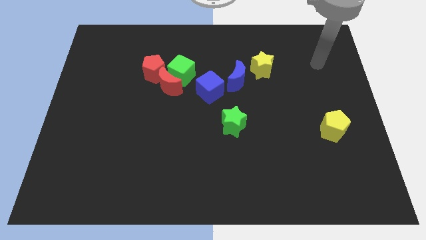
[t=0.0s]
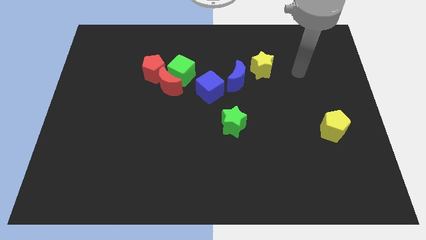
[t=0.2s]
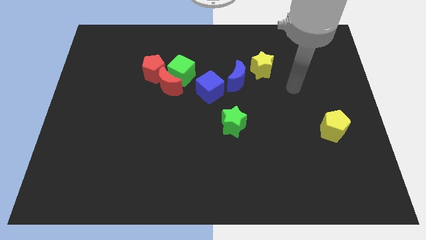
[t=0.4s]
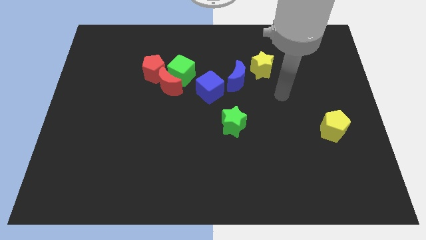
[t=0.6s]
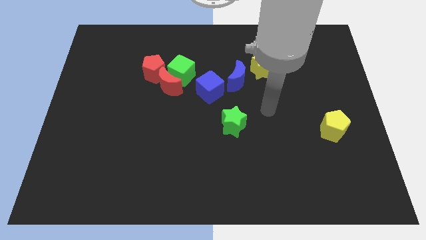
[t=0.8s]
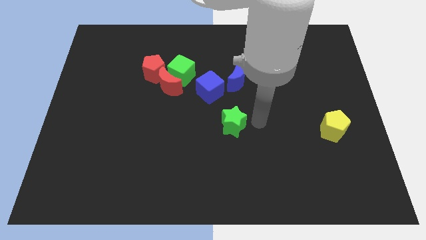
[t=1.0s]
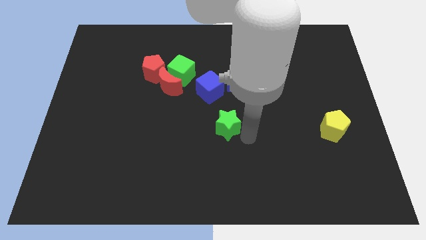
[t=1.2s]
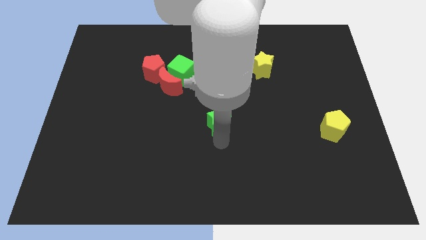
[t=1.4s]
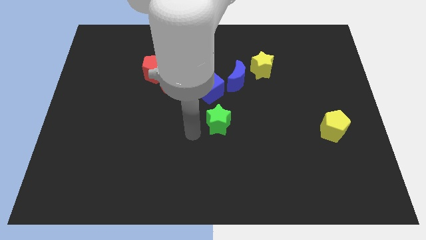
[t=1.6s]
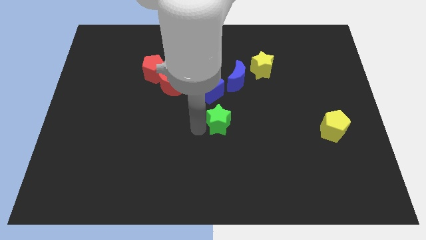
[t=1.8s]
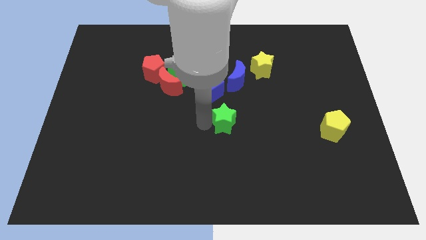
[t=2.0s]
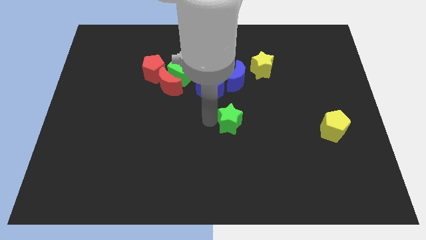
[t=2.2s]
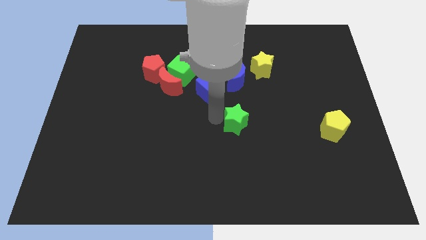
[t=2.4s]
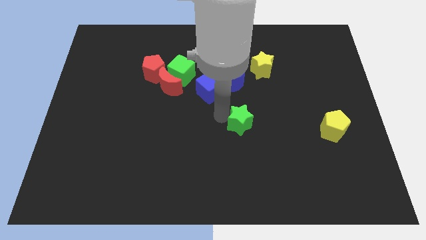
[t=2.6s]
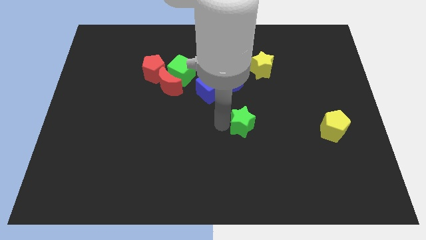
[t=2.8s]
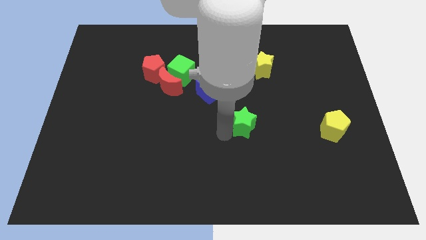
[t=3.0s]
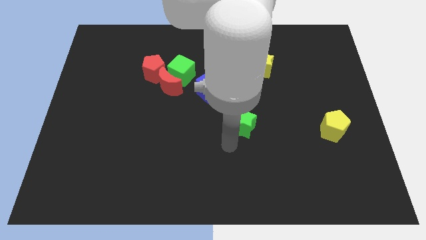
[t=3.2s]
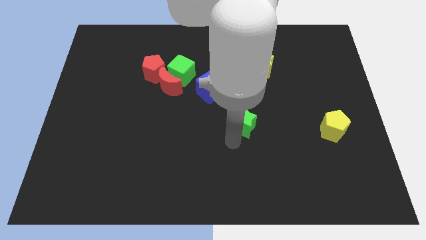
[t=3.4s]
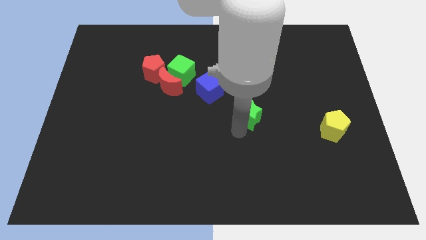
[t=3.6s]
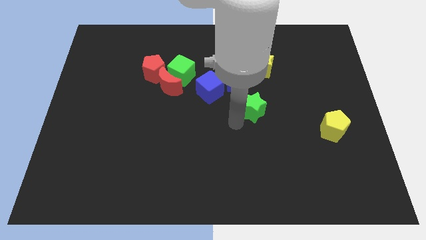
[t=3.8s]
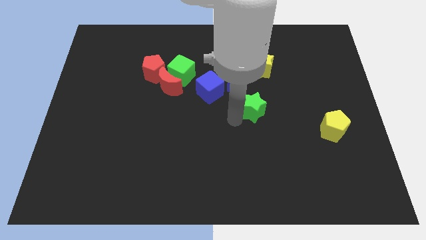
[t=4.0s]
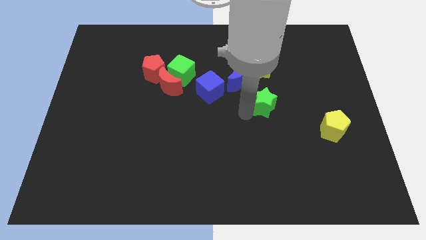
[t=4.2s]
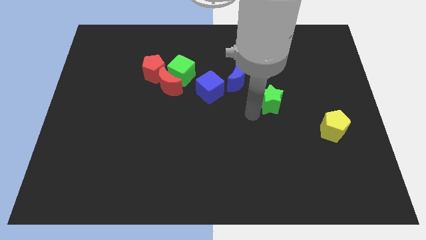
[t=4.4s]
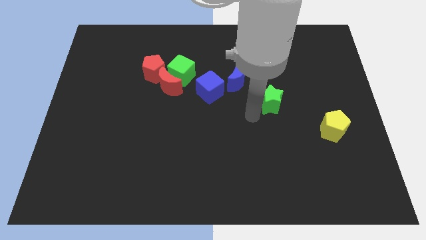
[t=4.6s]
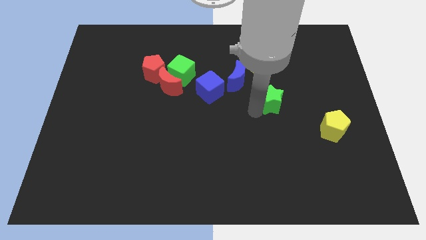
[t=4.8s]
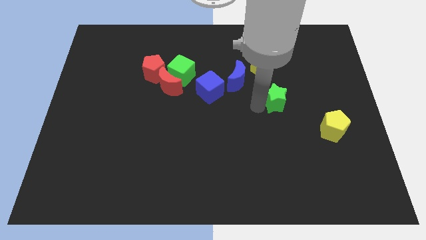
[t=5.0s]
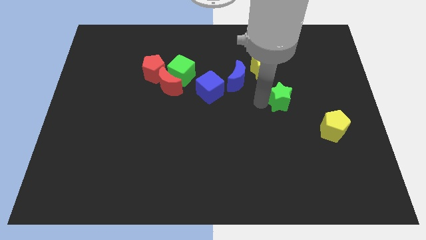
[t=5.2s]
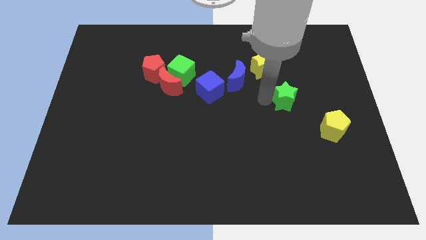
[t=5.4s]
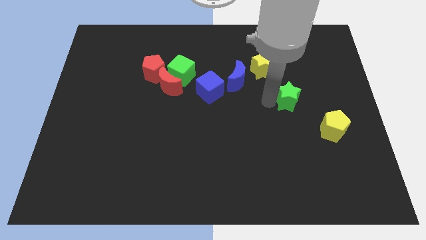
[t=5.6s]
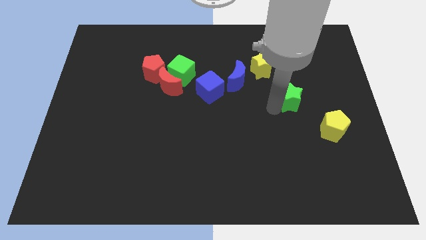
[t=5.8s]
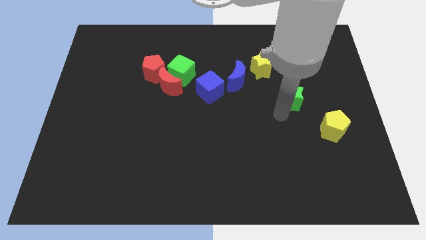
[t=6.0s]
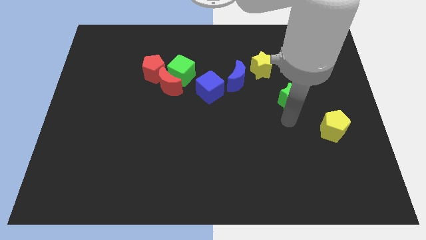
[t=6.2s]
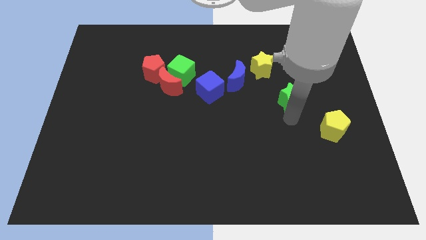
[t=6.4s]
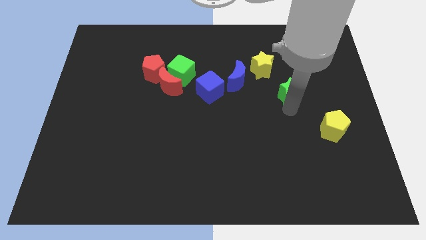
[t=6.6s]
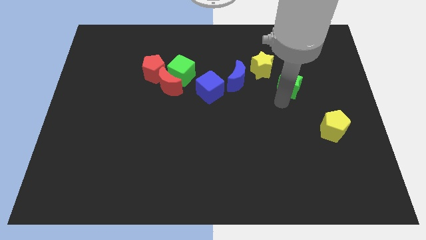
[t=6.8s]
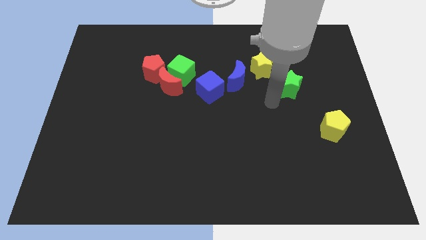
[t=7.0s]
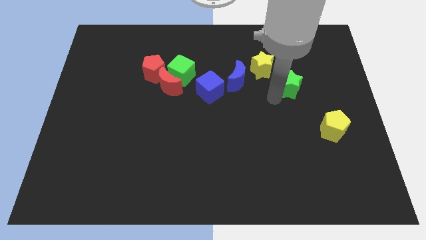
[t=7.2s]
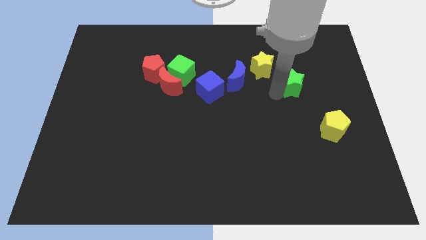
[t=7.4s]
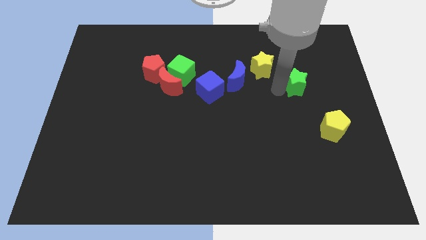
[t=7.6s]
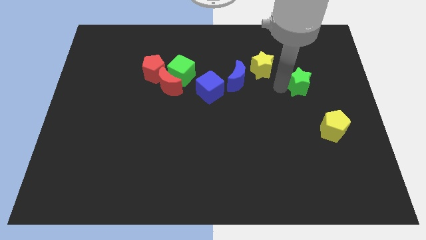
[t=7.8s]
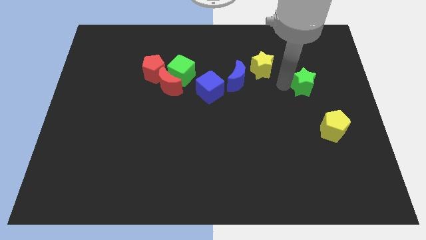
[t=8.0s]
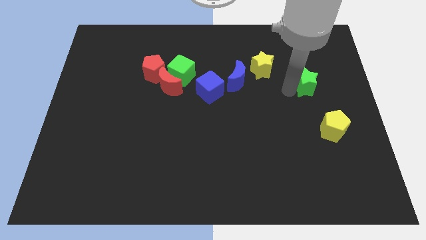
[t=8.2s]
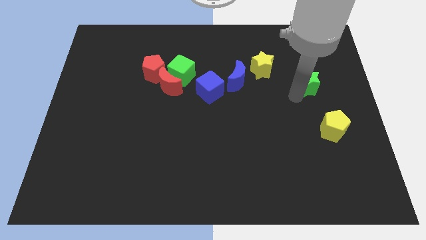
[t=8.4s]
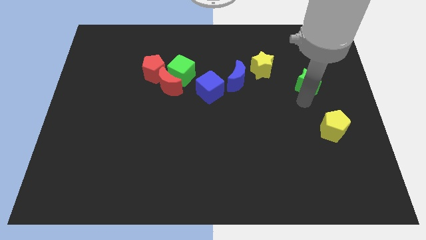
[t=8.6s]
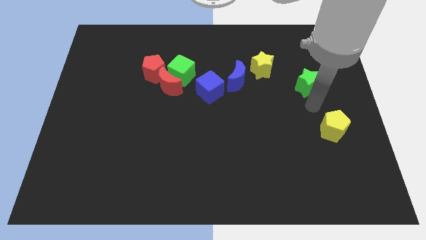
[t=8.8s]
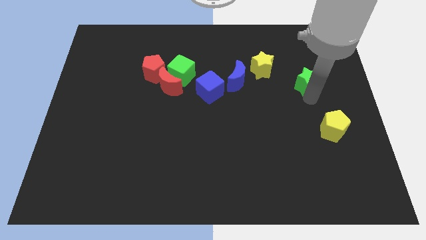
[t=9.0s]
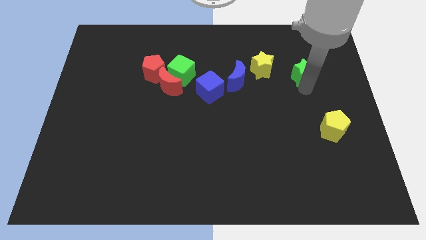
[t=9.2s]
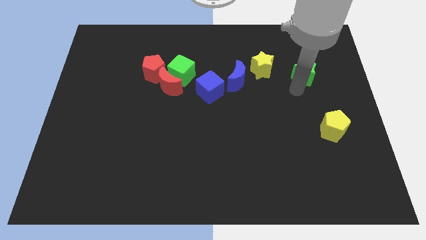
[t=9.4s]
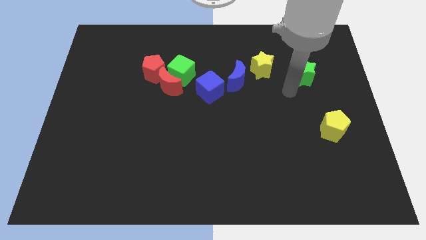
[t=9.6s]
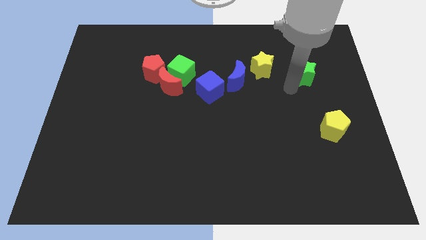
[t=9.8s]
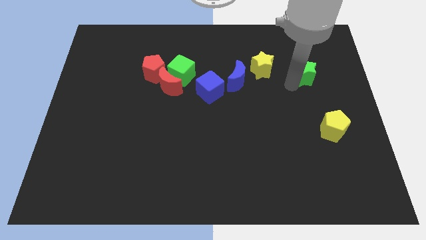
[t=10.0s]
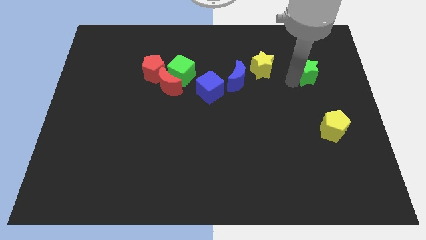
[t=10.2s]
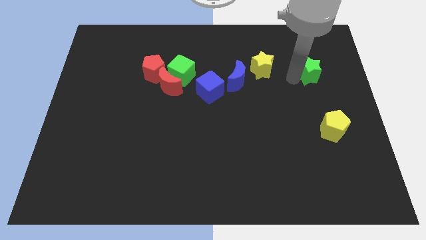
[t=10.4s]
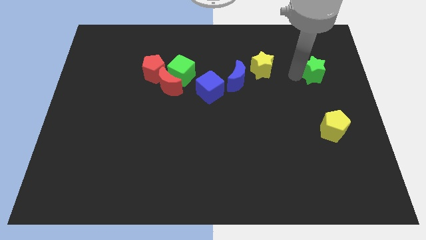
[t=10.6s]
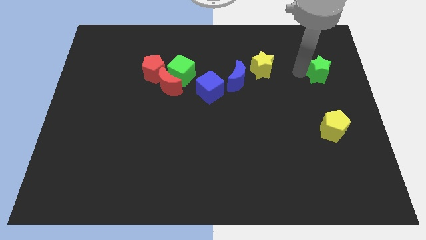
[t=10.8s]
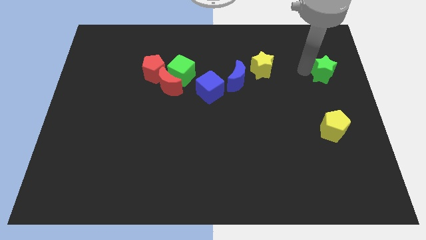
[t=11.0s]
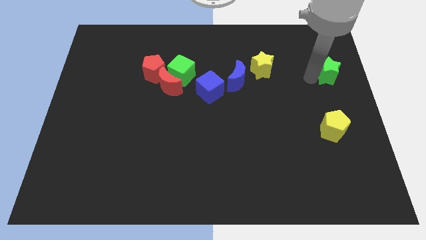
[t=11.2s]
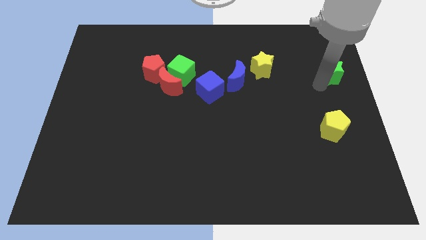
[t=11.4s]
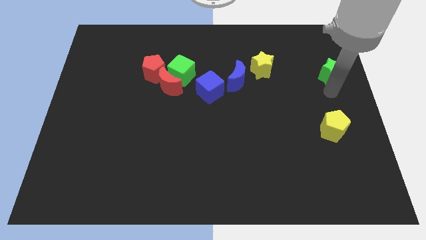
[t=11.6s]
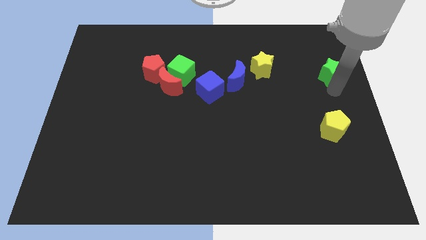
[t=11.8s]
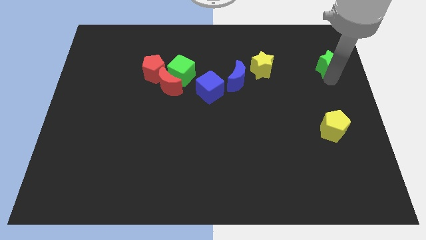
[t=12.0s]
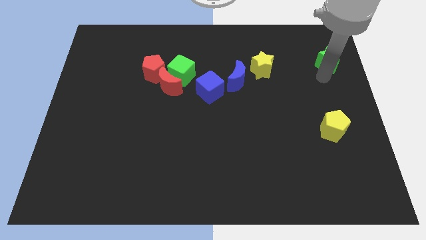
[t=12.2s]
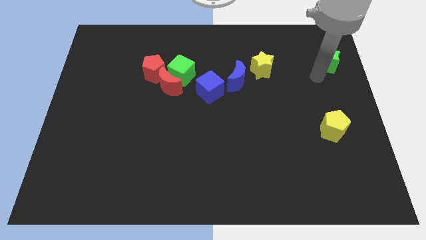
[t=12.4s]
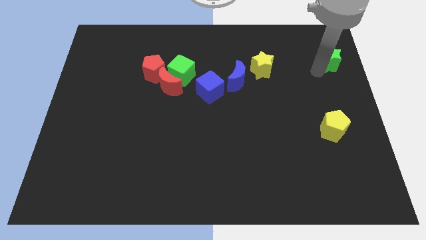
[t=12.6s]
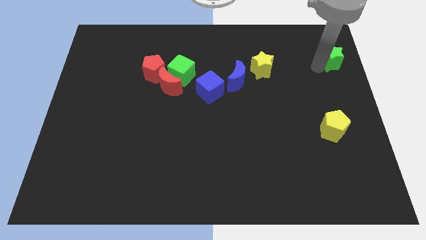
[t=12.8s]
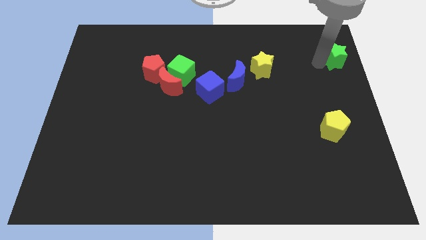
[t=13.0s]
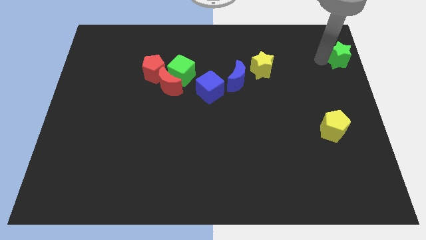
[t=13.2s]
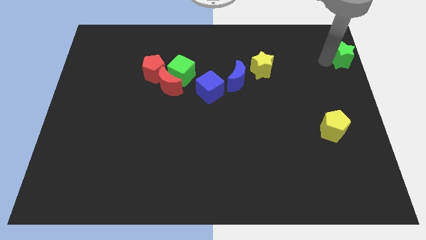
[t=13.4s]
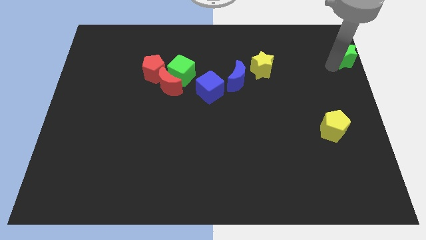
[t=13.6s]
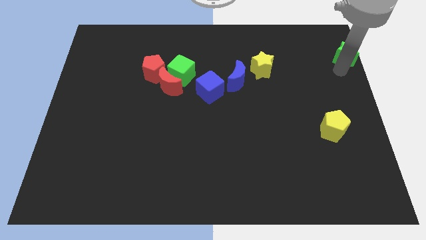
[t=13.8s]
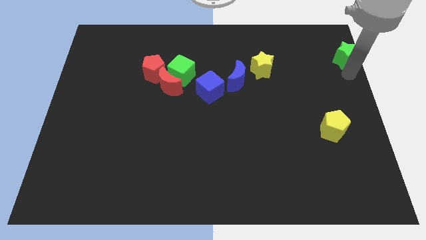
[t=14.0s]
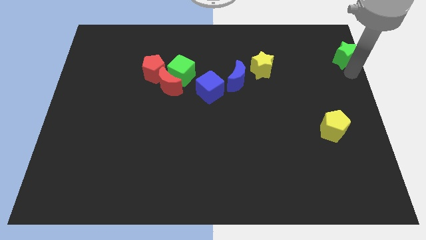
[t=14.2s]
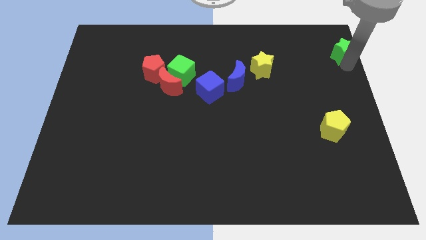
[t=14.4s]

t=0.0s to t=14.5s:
move the green star to the top right corner

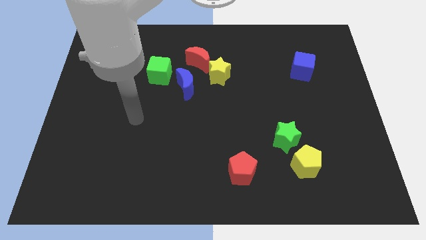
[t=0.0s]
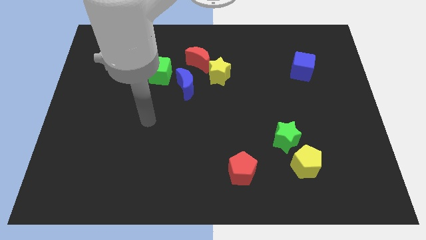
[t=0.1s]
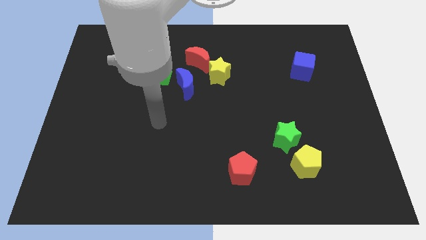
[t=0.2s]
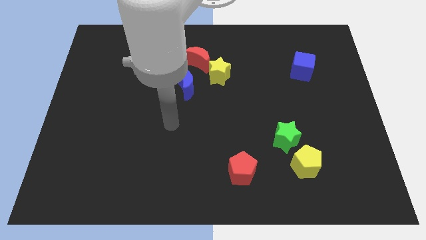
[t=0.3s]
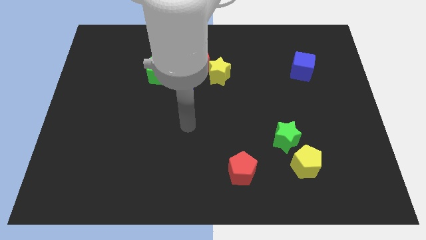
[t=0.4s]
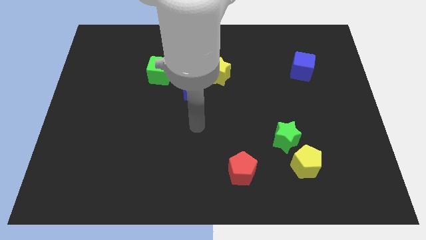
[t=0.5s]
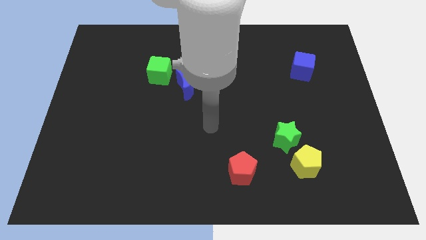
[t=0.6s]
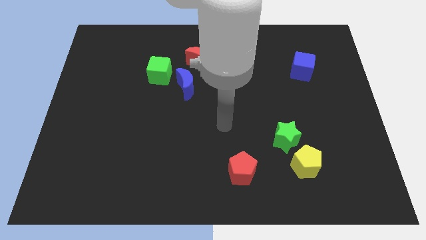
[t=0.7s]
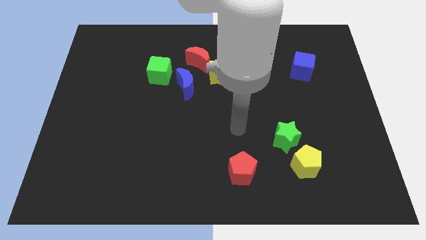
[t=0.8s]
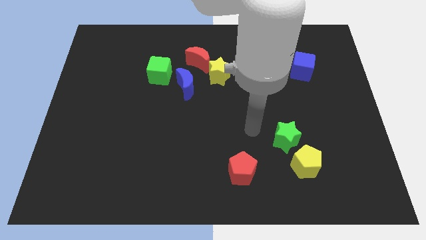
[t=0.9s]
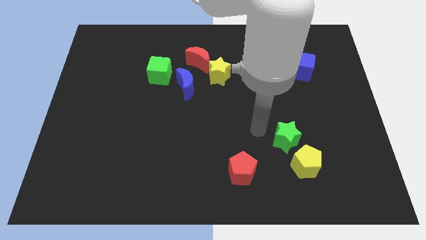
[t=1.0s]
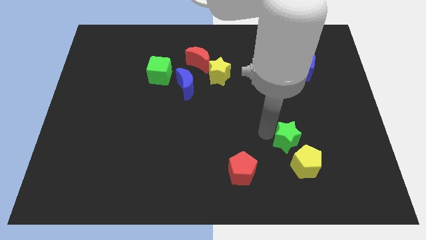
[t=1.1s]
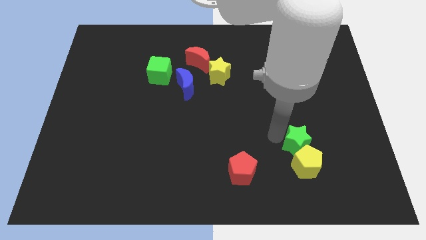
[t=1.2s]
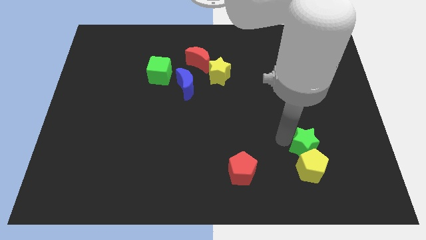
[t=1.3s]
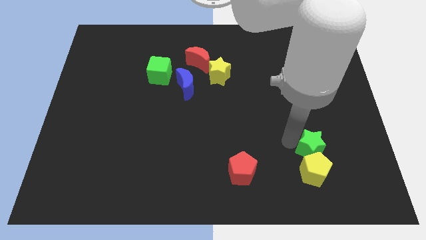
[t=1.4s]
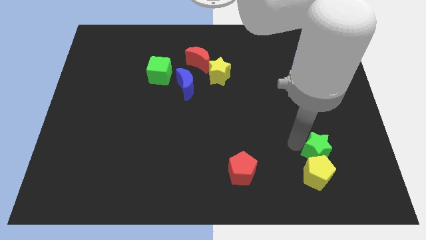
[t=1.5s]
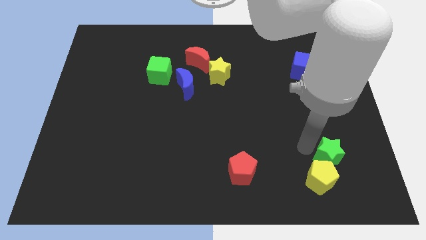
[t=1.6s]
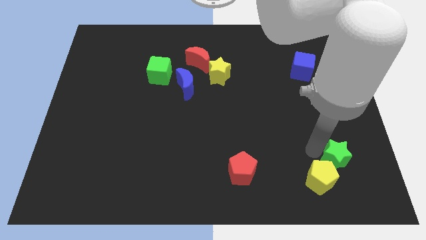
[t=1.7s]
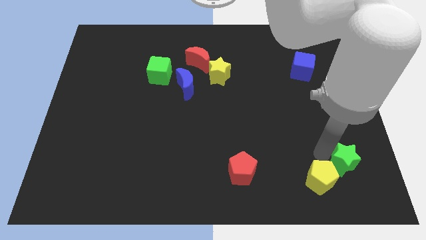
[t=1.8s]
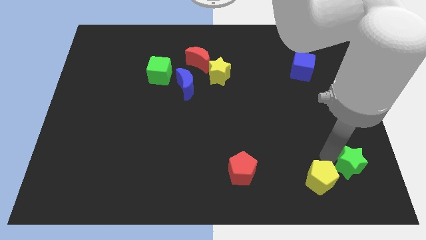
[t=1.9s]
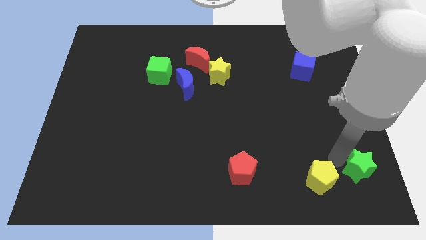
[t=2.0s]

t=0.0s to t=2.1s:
move the green star to the bottom right
